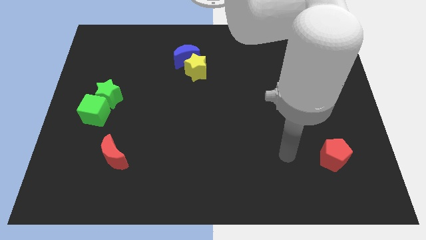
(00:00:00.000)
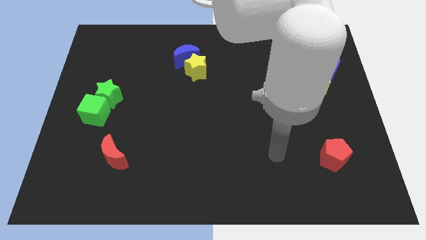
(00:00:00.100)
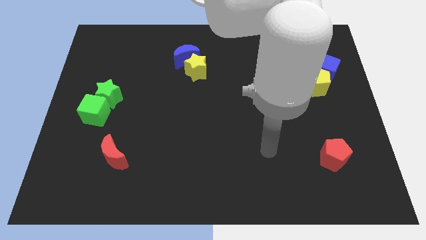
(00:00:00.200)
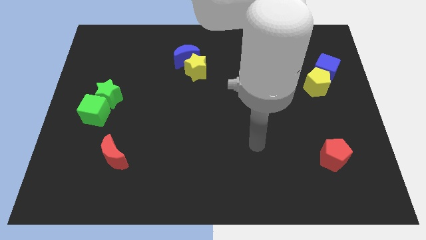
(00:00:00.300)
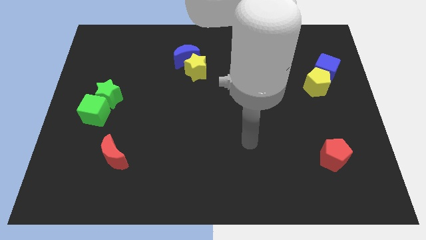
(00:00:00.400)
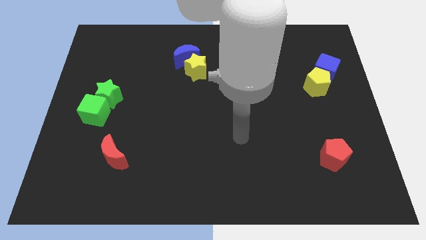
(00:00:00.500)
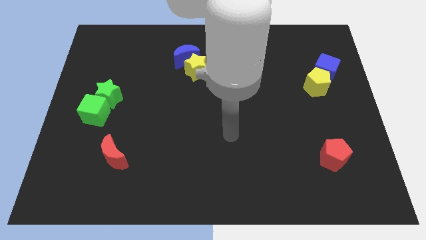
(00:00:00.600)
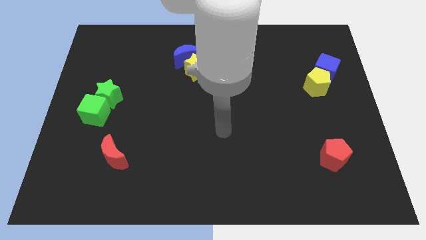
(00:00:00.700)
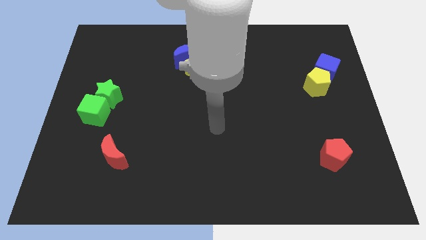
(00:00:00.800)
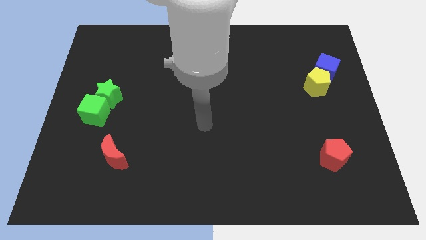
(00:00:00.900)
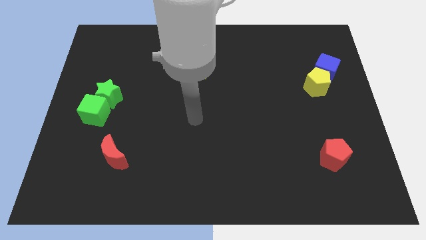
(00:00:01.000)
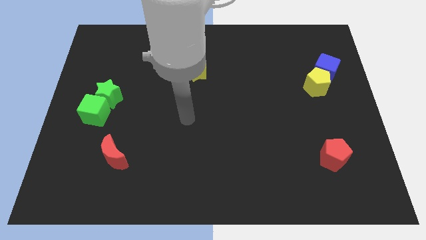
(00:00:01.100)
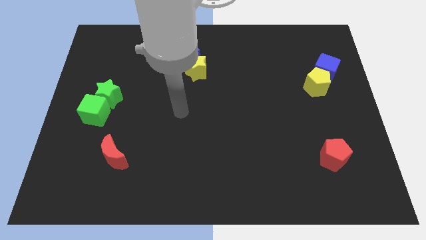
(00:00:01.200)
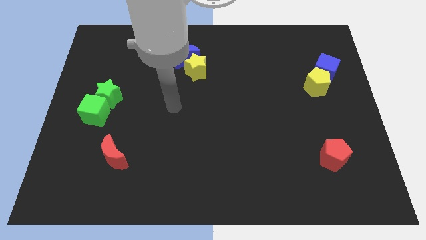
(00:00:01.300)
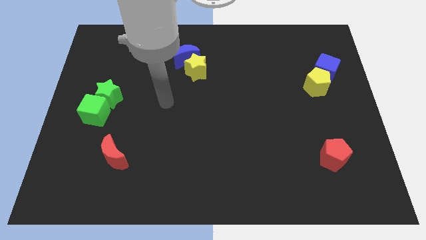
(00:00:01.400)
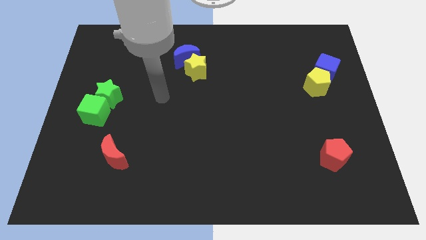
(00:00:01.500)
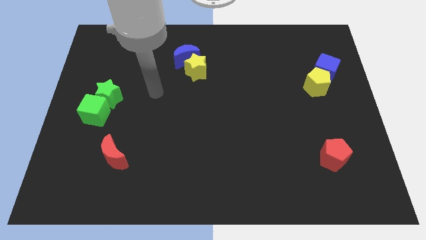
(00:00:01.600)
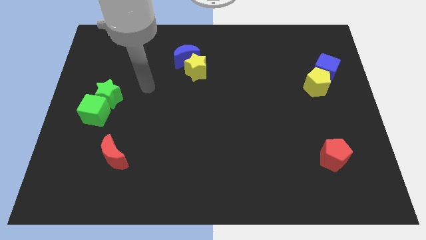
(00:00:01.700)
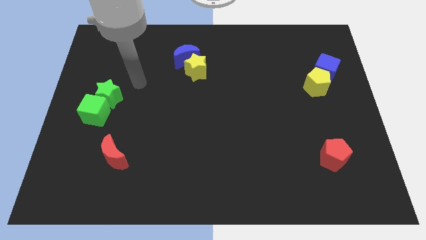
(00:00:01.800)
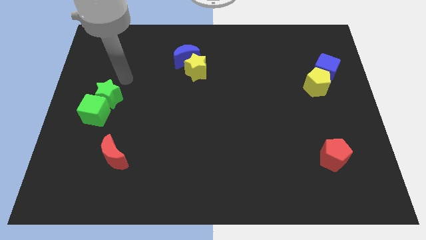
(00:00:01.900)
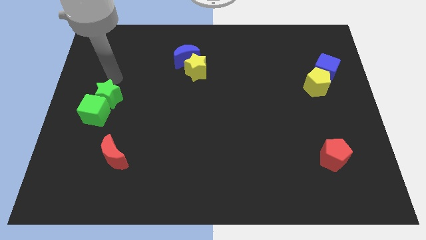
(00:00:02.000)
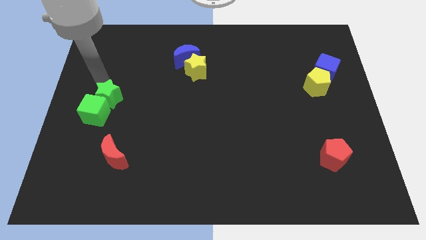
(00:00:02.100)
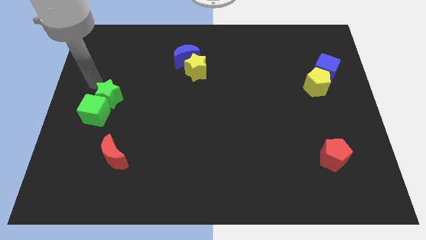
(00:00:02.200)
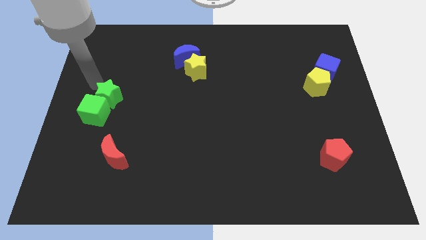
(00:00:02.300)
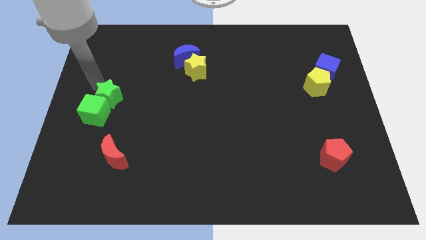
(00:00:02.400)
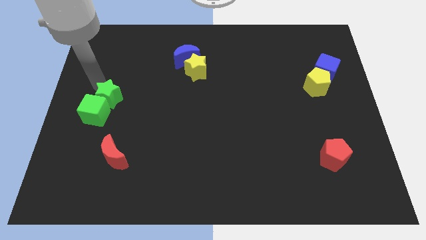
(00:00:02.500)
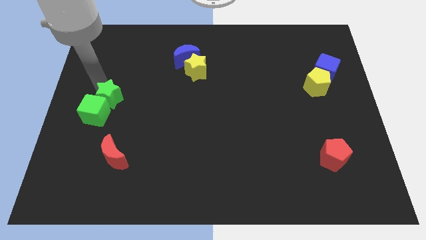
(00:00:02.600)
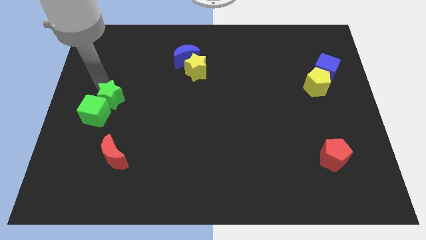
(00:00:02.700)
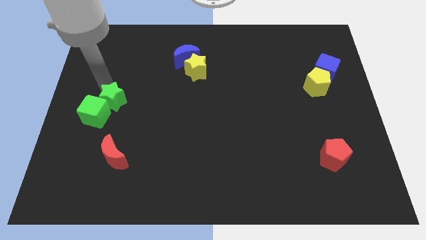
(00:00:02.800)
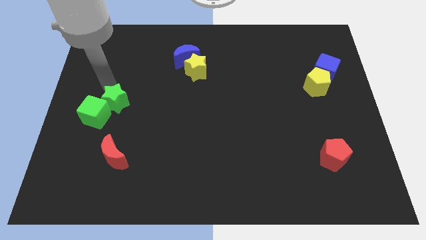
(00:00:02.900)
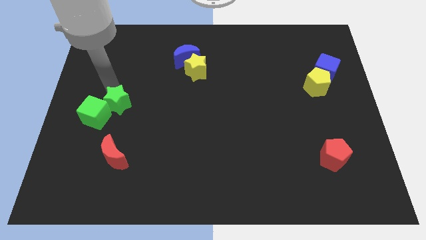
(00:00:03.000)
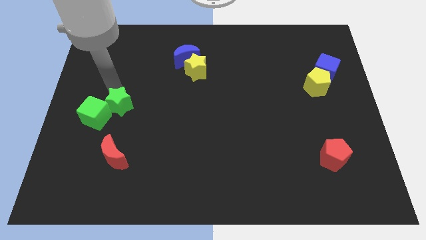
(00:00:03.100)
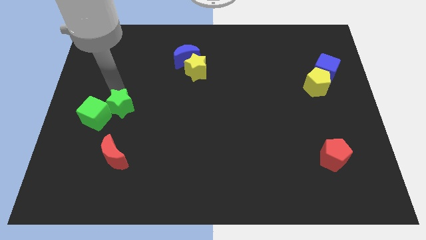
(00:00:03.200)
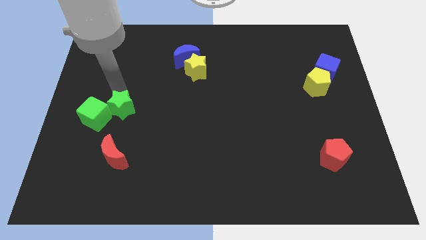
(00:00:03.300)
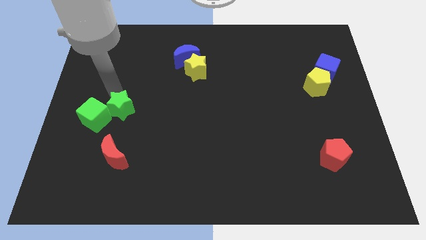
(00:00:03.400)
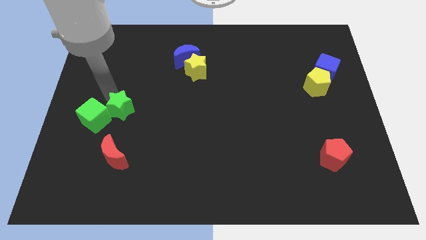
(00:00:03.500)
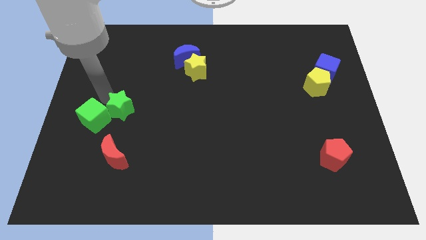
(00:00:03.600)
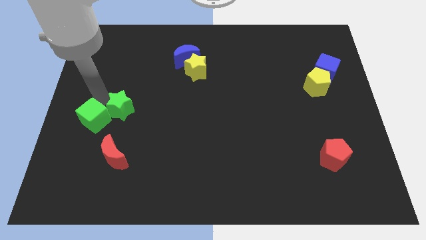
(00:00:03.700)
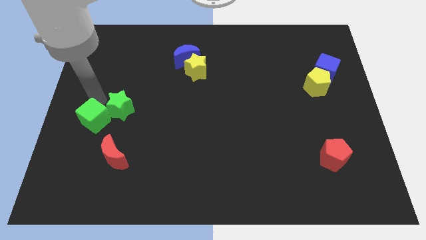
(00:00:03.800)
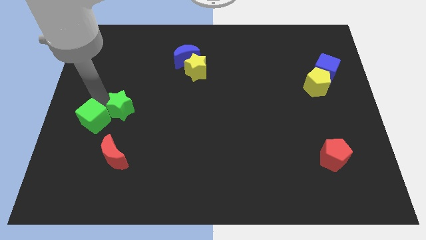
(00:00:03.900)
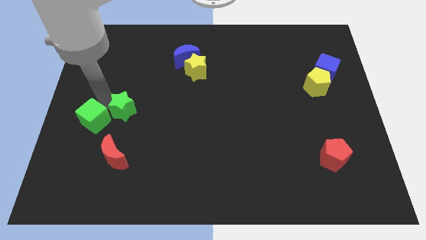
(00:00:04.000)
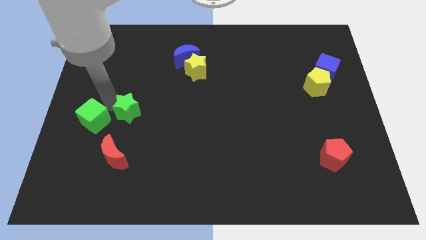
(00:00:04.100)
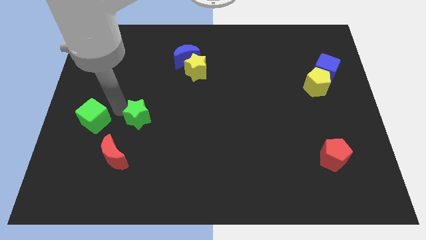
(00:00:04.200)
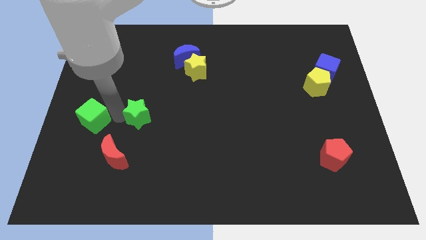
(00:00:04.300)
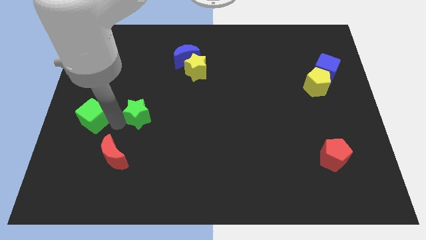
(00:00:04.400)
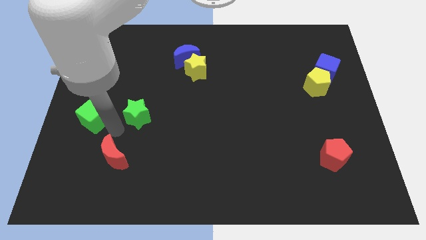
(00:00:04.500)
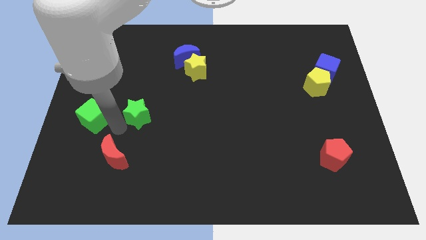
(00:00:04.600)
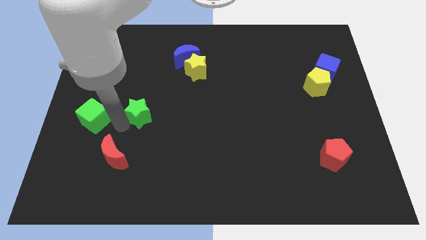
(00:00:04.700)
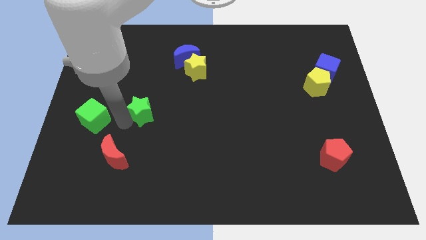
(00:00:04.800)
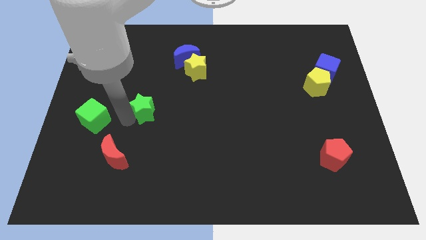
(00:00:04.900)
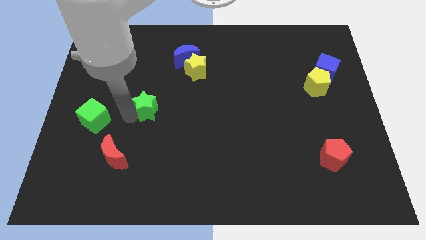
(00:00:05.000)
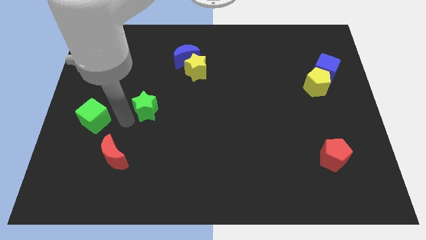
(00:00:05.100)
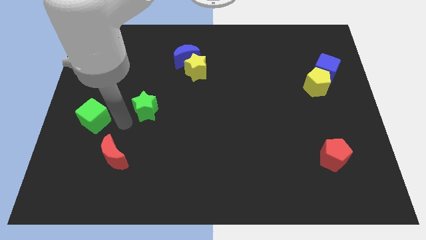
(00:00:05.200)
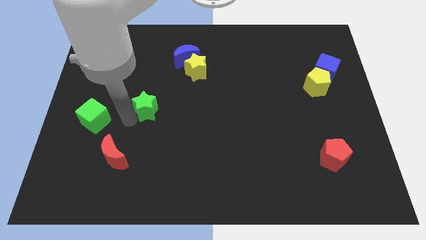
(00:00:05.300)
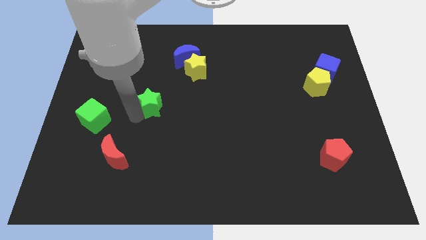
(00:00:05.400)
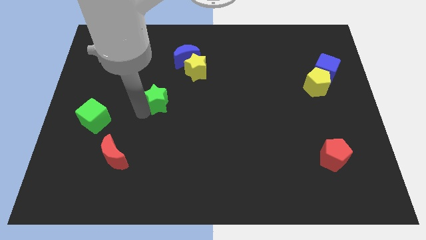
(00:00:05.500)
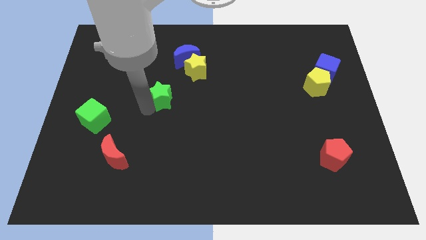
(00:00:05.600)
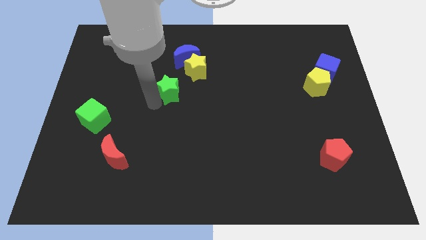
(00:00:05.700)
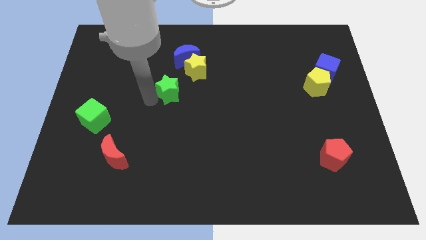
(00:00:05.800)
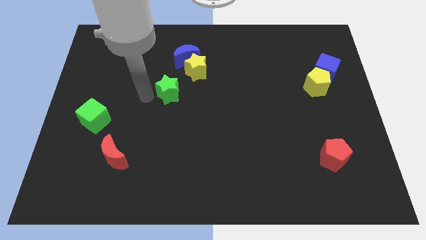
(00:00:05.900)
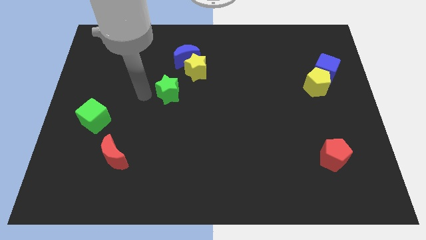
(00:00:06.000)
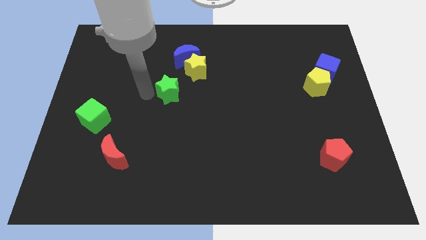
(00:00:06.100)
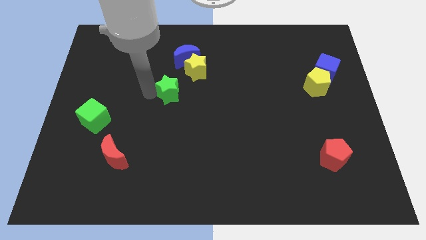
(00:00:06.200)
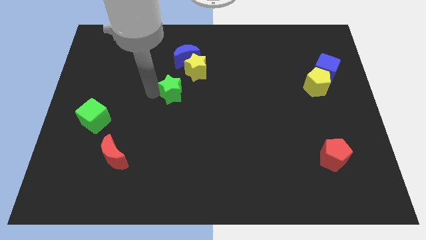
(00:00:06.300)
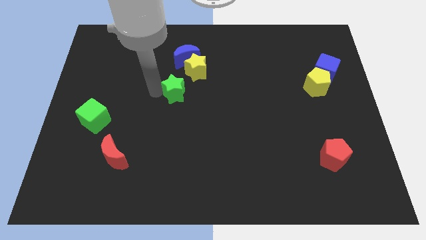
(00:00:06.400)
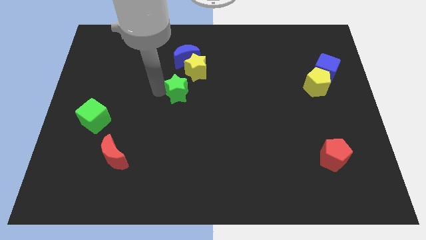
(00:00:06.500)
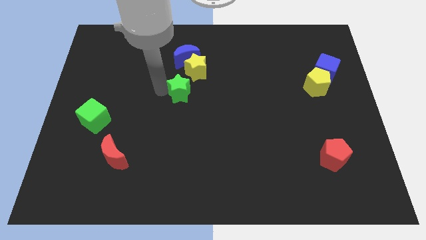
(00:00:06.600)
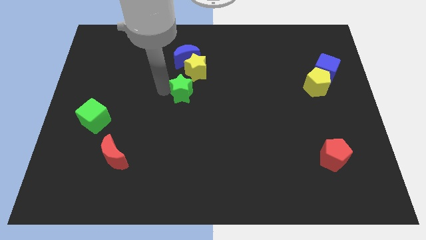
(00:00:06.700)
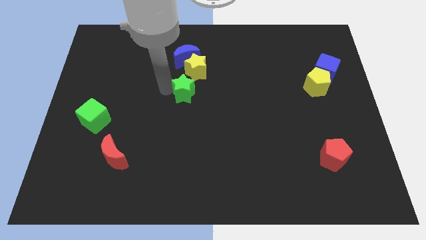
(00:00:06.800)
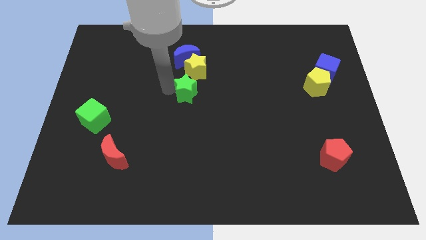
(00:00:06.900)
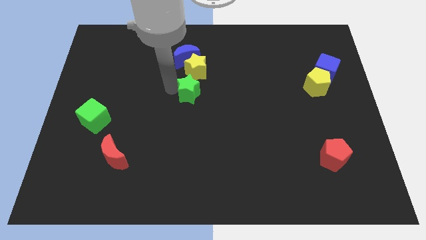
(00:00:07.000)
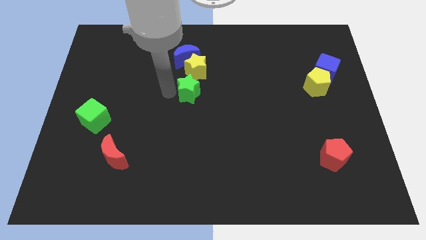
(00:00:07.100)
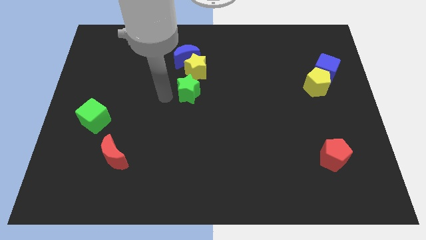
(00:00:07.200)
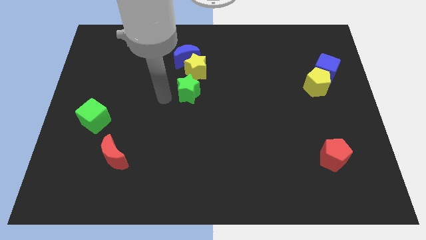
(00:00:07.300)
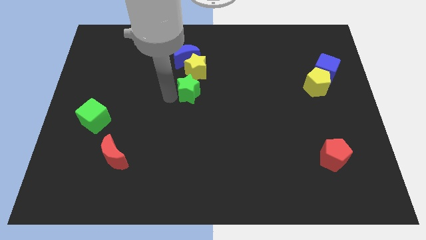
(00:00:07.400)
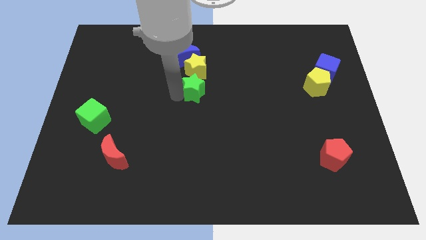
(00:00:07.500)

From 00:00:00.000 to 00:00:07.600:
move the green star to the bottom right side of the yellow star
